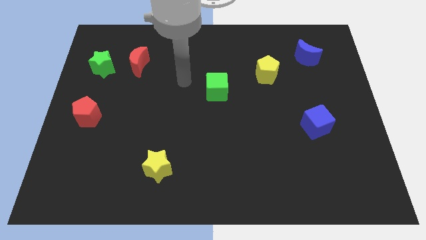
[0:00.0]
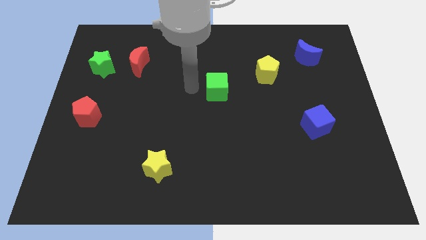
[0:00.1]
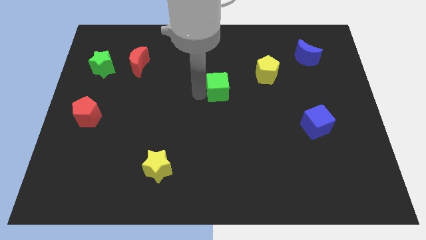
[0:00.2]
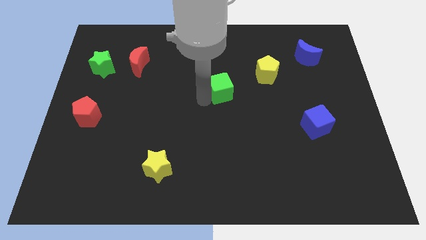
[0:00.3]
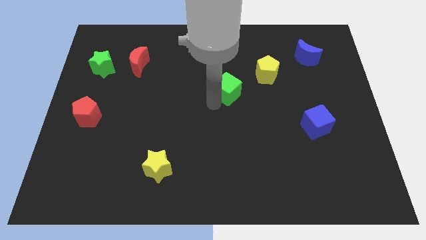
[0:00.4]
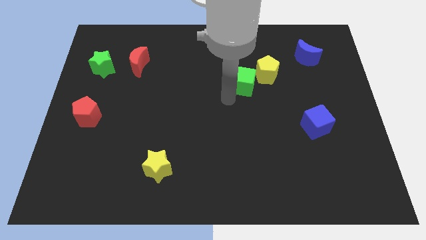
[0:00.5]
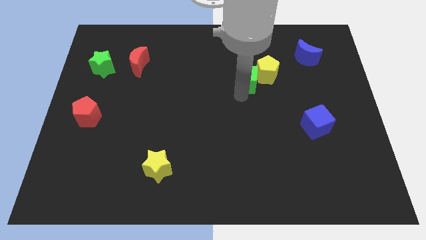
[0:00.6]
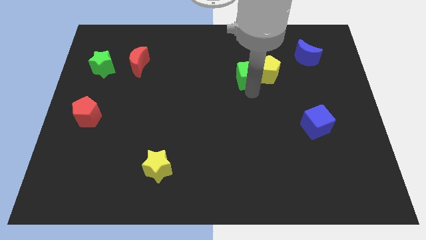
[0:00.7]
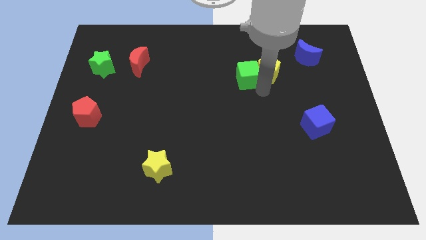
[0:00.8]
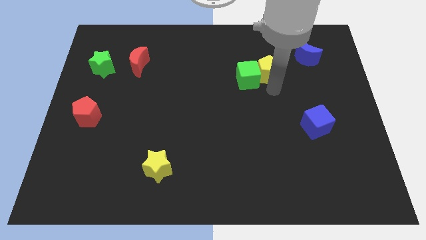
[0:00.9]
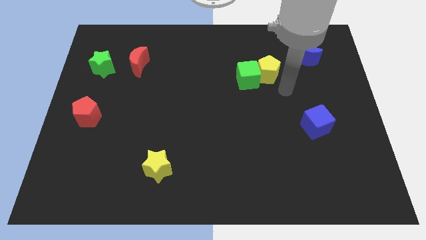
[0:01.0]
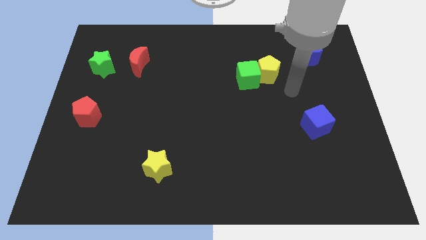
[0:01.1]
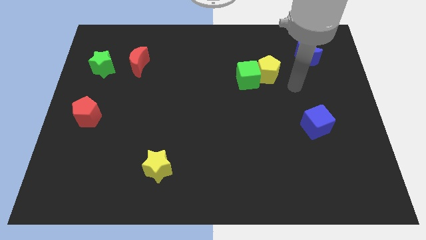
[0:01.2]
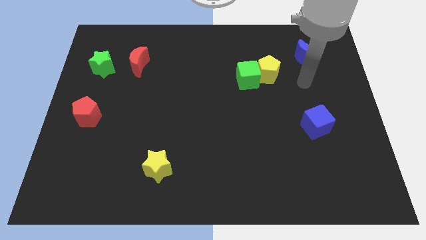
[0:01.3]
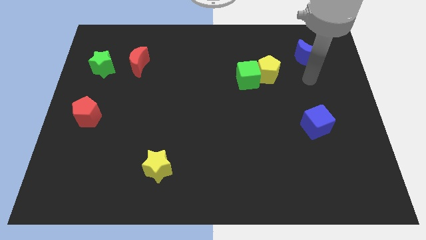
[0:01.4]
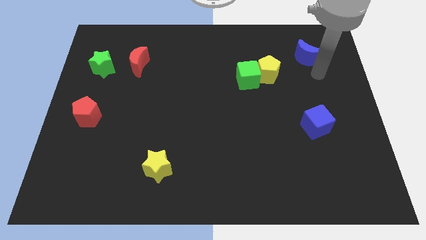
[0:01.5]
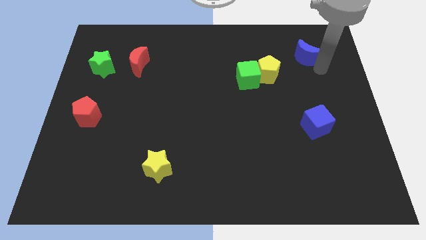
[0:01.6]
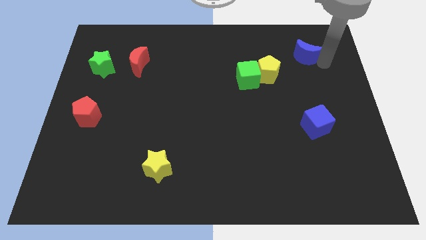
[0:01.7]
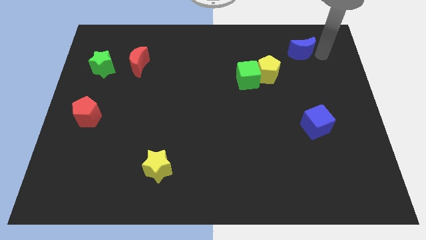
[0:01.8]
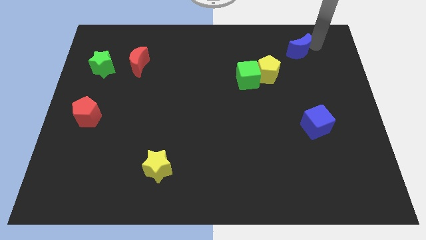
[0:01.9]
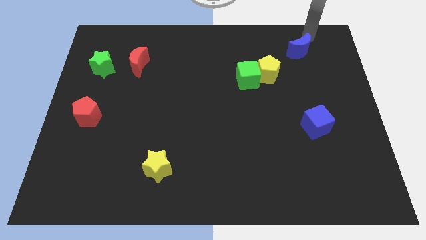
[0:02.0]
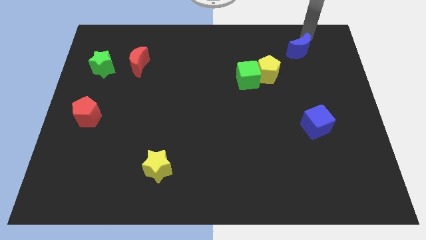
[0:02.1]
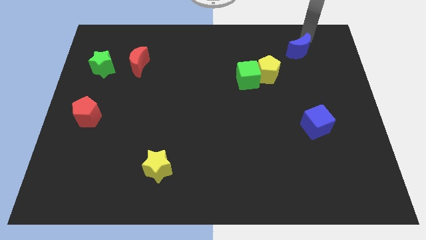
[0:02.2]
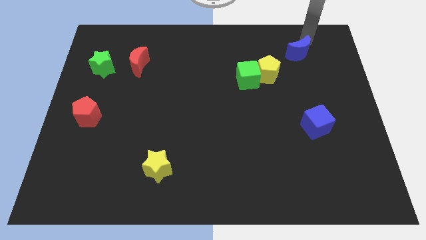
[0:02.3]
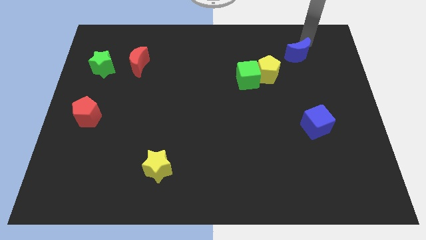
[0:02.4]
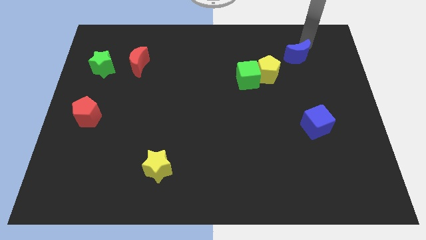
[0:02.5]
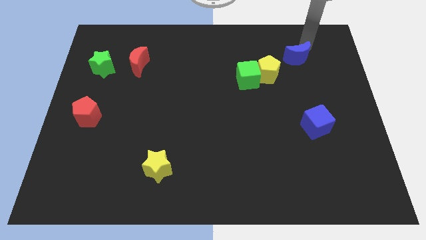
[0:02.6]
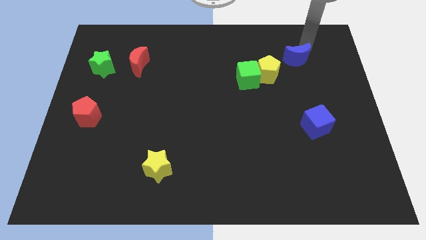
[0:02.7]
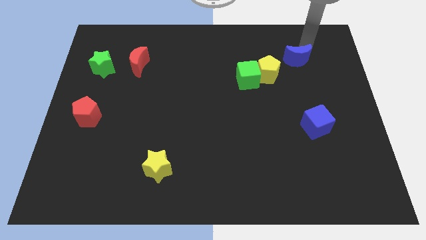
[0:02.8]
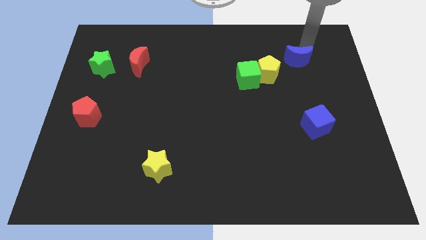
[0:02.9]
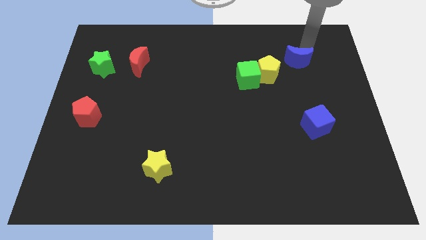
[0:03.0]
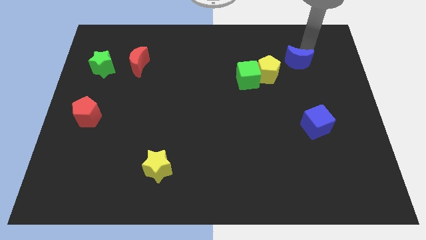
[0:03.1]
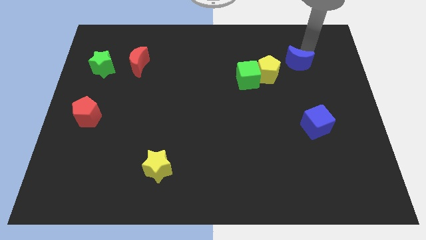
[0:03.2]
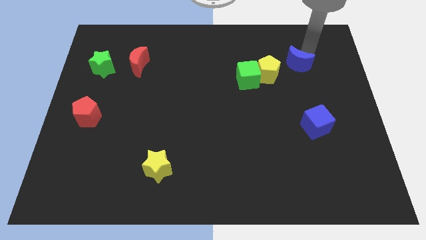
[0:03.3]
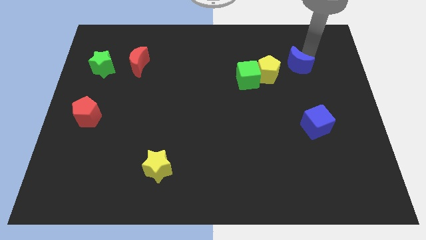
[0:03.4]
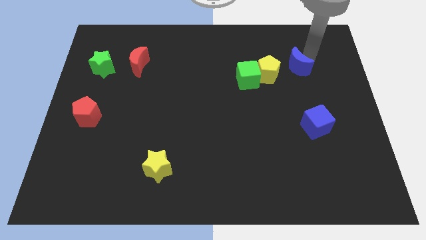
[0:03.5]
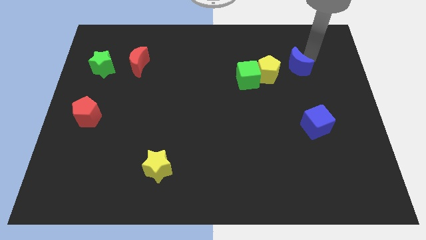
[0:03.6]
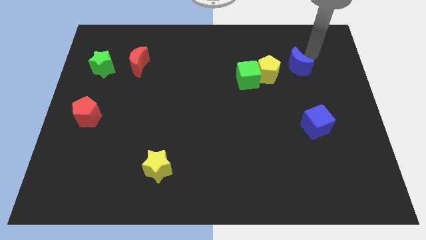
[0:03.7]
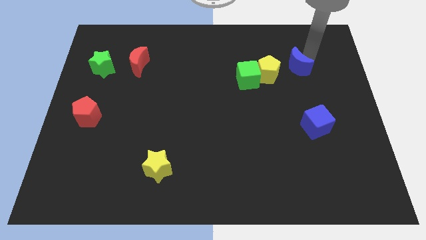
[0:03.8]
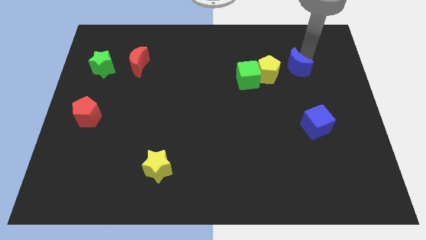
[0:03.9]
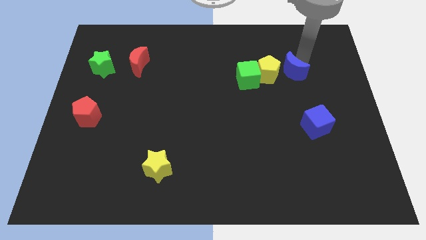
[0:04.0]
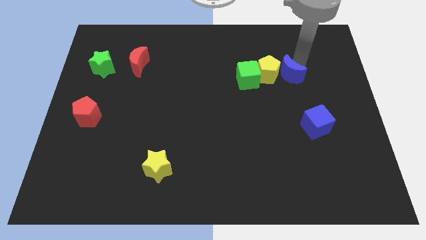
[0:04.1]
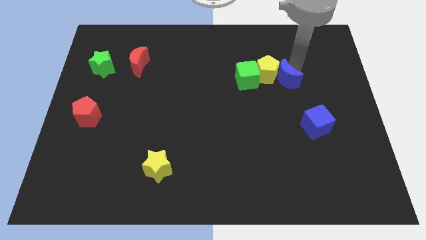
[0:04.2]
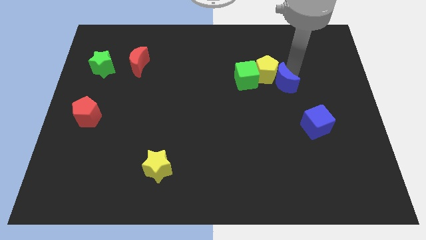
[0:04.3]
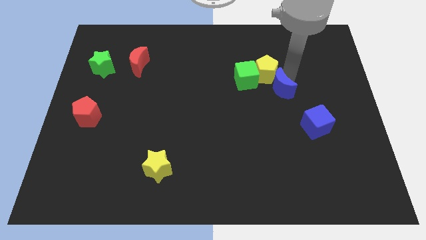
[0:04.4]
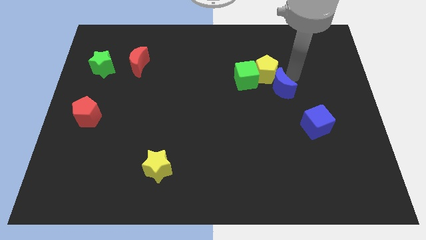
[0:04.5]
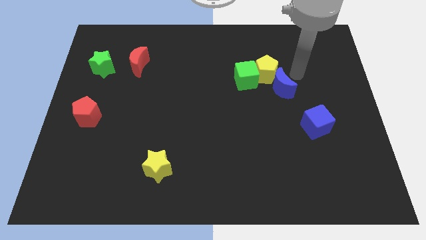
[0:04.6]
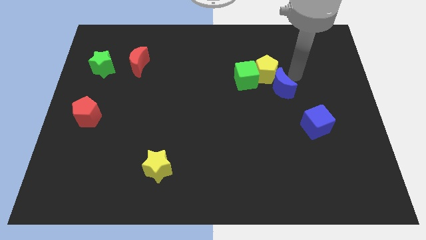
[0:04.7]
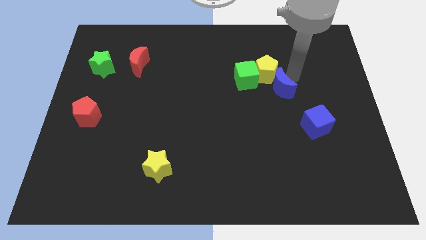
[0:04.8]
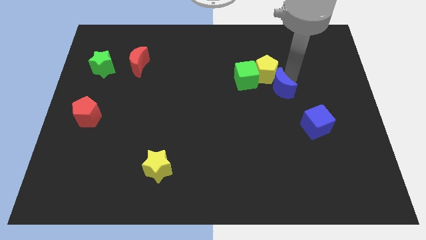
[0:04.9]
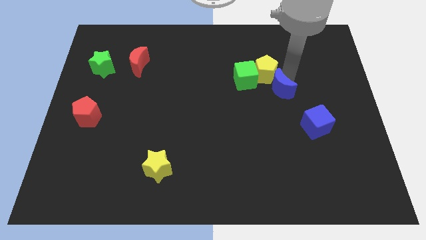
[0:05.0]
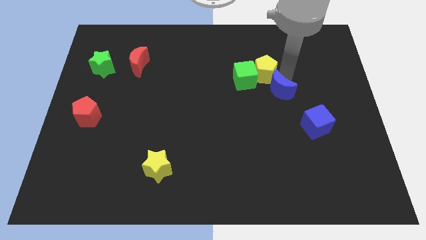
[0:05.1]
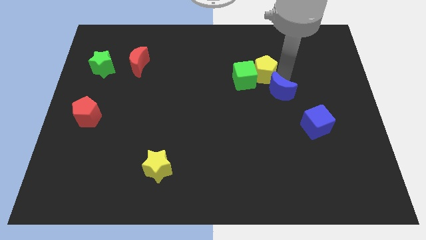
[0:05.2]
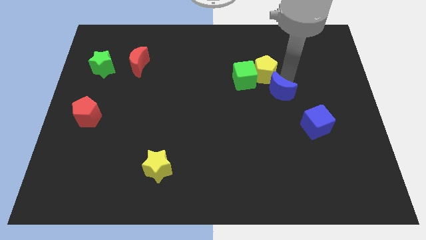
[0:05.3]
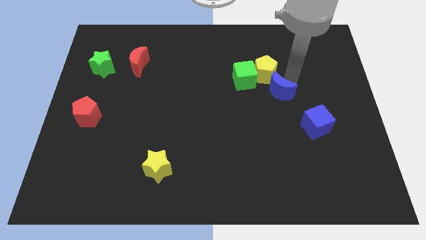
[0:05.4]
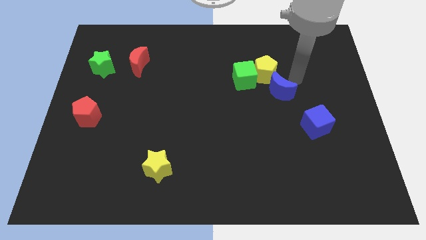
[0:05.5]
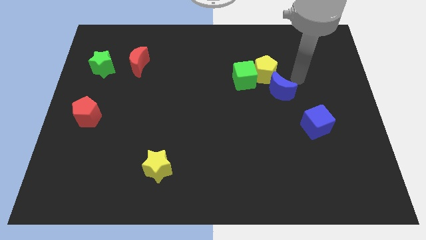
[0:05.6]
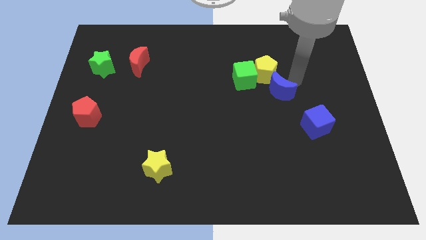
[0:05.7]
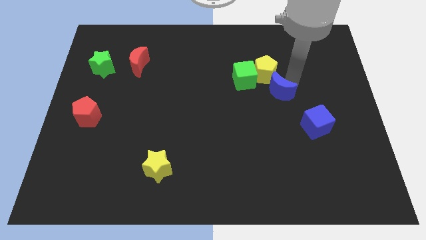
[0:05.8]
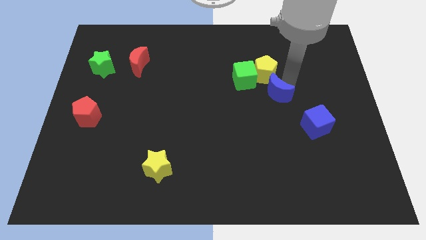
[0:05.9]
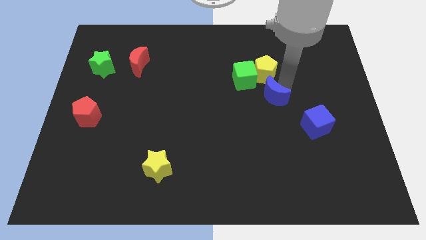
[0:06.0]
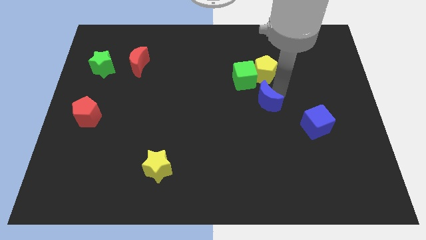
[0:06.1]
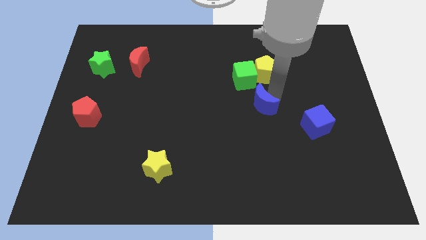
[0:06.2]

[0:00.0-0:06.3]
move the blue moon diagonally downwards and left

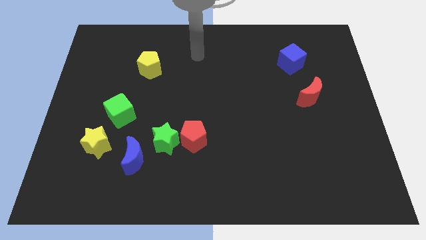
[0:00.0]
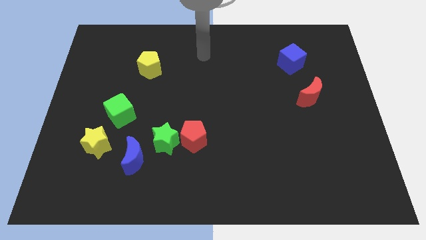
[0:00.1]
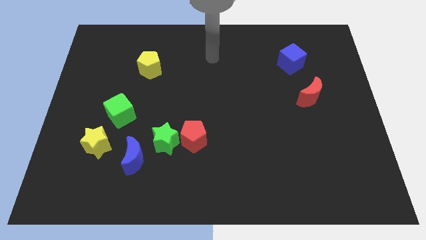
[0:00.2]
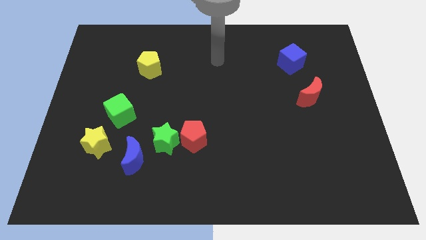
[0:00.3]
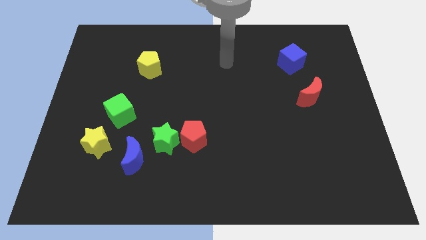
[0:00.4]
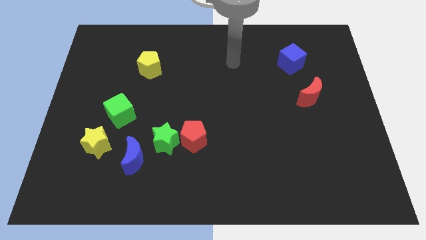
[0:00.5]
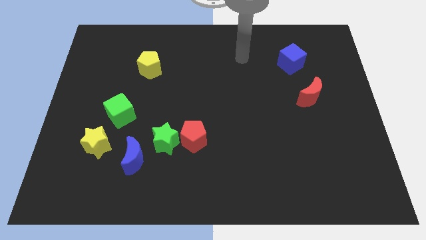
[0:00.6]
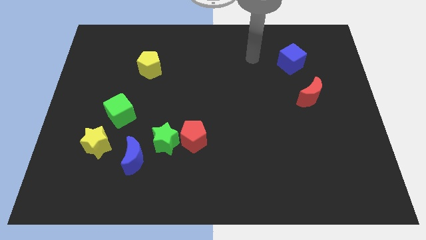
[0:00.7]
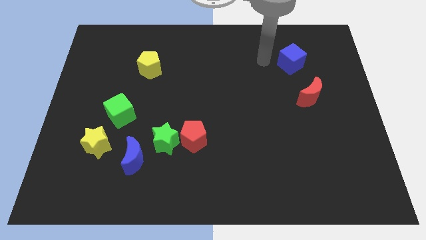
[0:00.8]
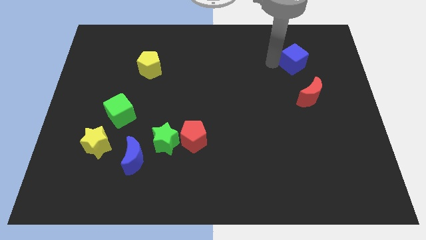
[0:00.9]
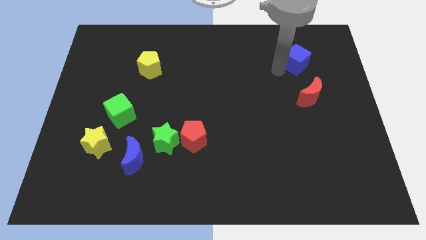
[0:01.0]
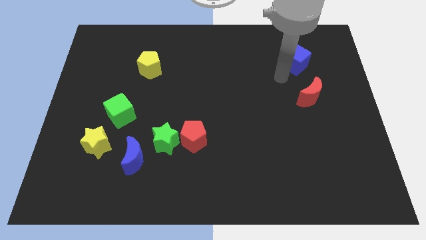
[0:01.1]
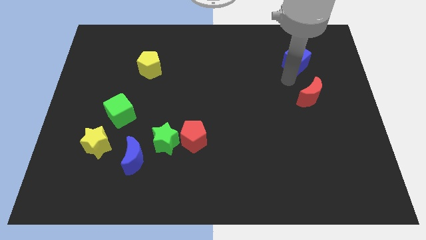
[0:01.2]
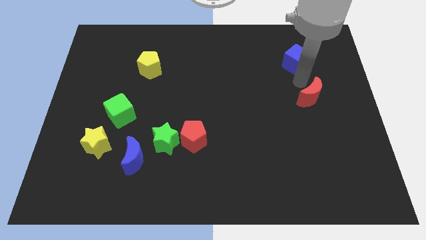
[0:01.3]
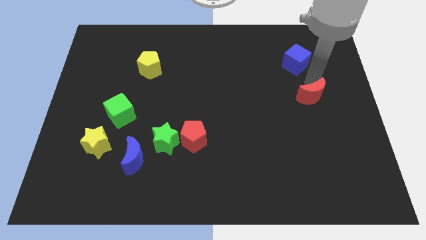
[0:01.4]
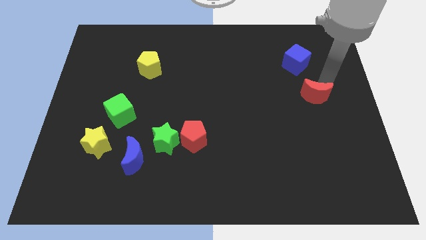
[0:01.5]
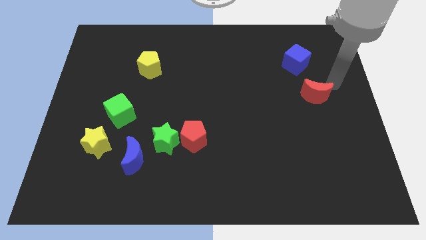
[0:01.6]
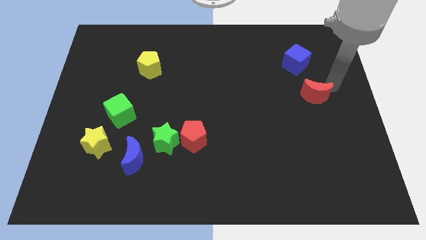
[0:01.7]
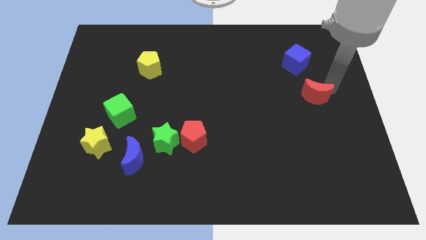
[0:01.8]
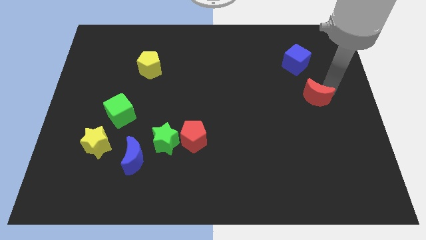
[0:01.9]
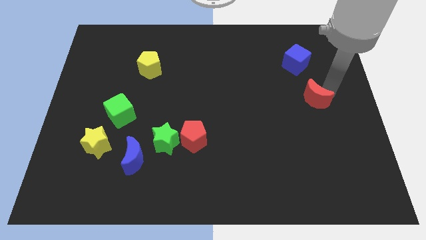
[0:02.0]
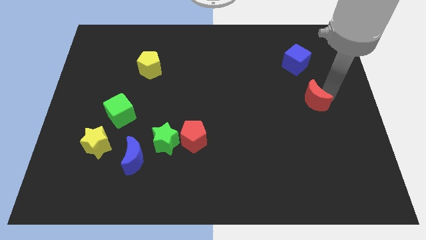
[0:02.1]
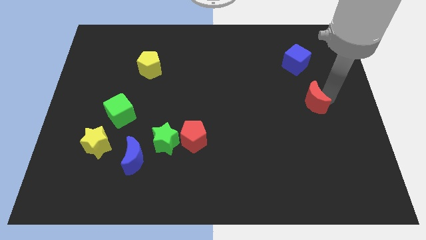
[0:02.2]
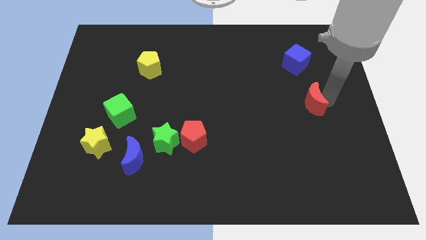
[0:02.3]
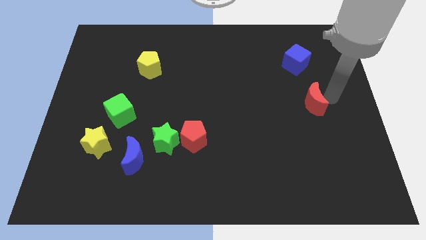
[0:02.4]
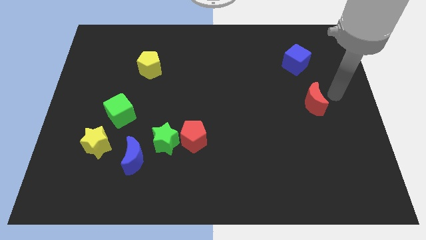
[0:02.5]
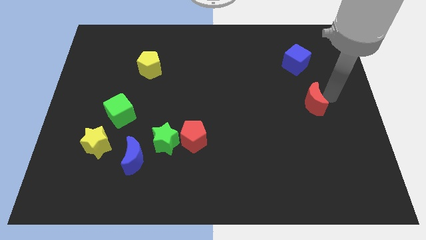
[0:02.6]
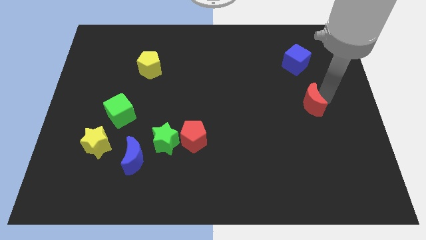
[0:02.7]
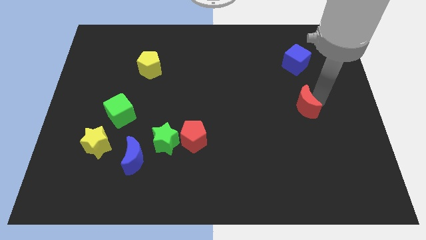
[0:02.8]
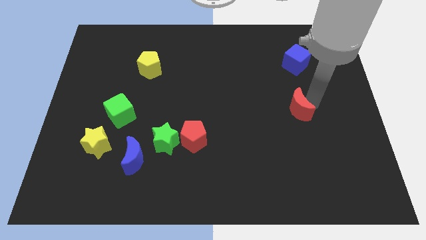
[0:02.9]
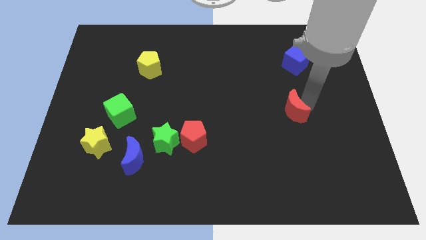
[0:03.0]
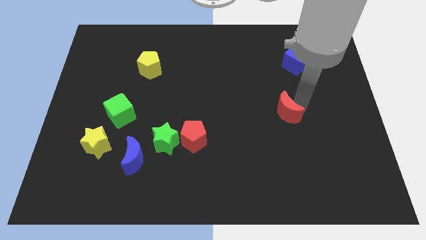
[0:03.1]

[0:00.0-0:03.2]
slide the red moon down and to the left somewhat
